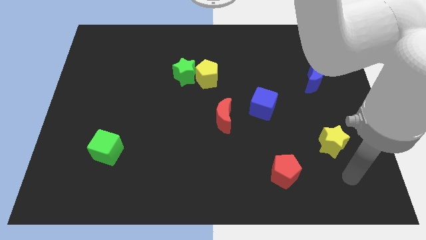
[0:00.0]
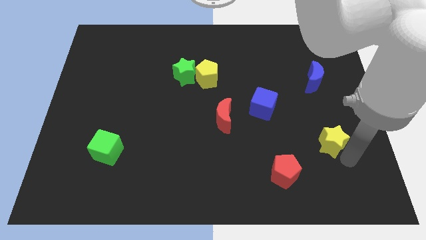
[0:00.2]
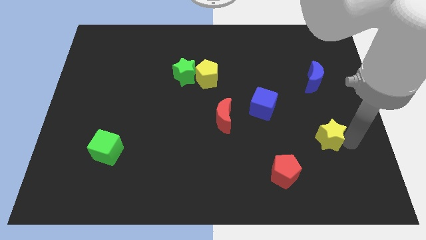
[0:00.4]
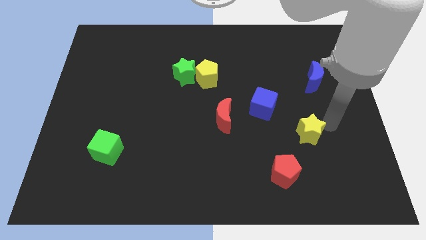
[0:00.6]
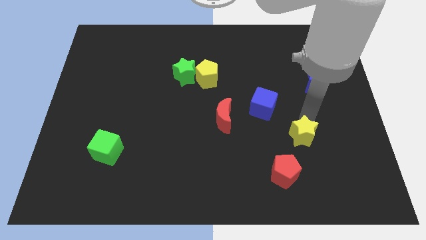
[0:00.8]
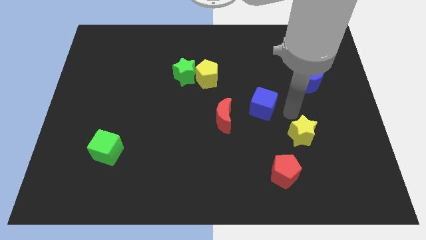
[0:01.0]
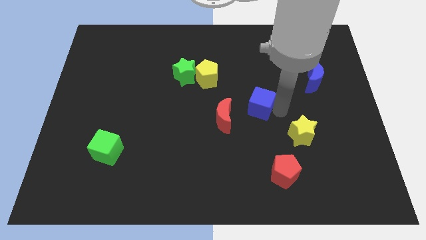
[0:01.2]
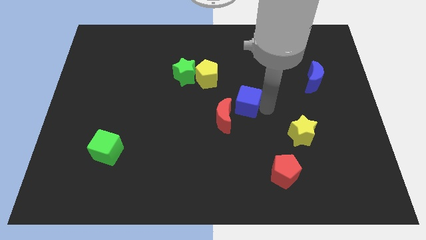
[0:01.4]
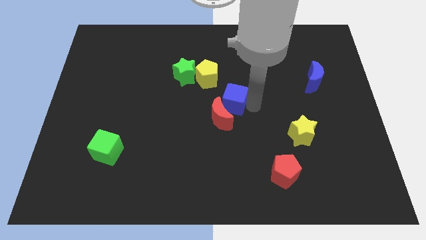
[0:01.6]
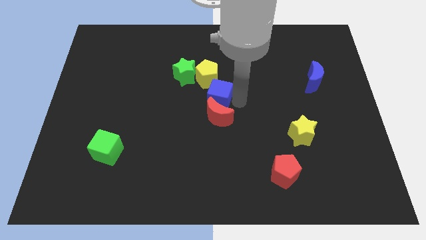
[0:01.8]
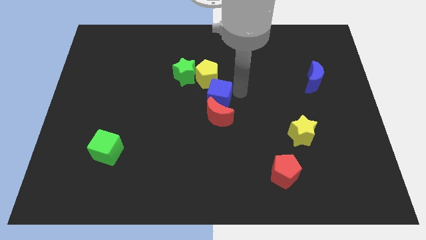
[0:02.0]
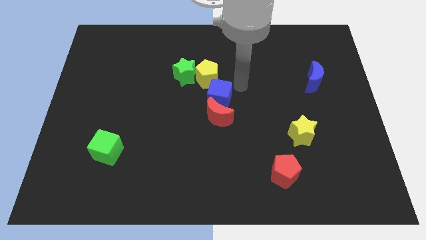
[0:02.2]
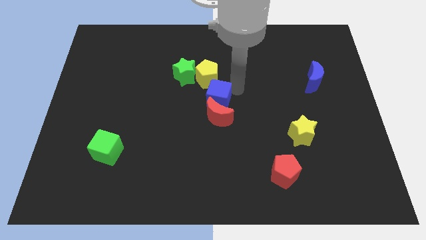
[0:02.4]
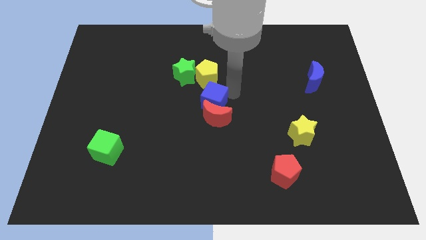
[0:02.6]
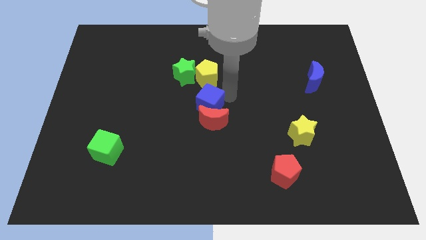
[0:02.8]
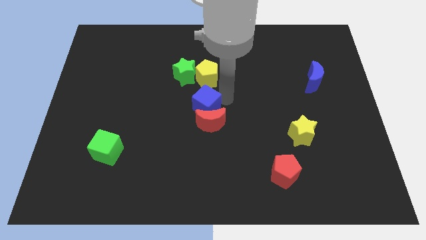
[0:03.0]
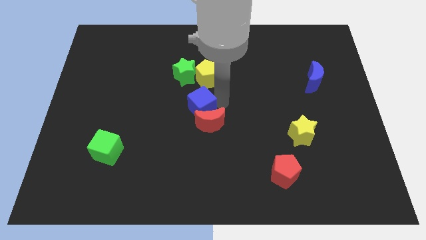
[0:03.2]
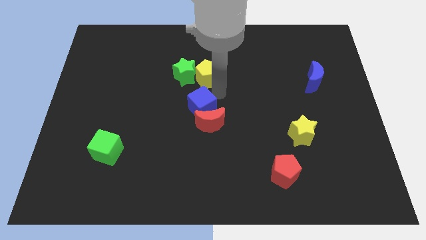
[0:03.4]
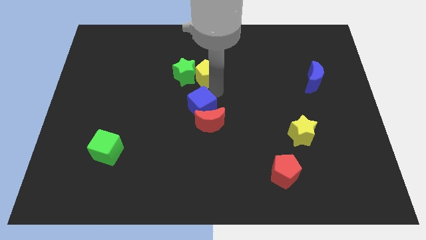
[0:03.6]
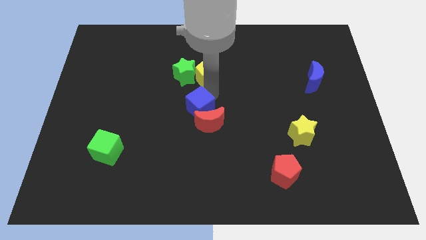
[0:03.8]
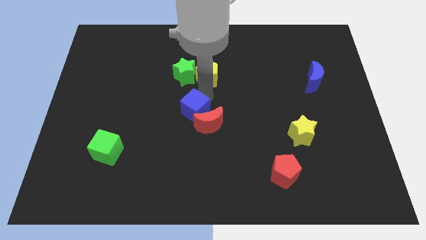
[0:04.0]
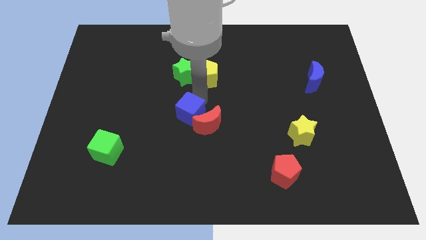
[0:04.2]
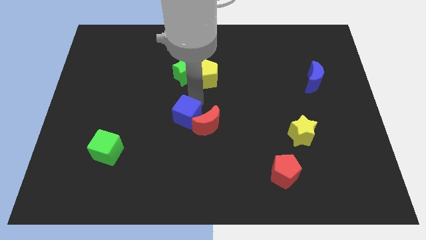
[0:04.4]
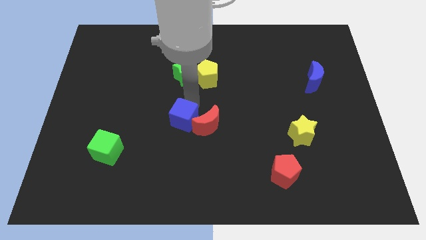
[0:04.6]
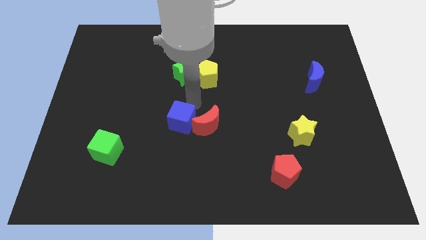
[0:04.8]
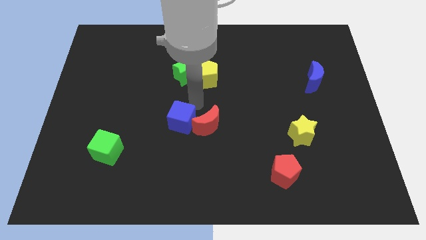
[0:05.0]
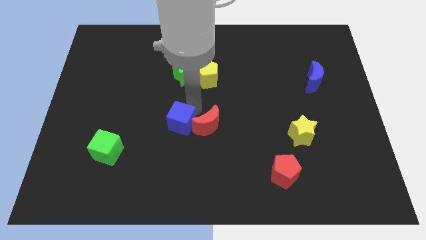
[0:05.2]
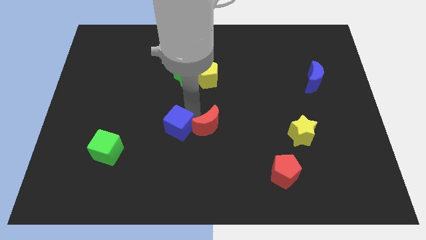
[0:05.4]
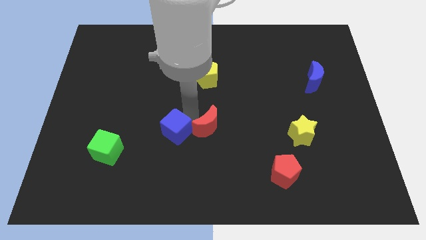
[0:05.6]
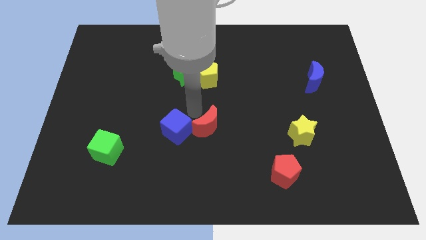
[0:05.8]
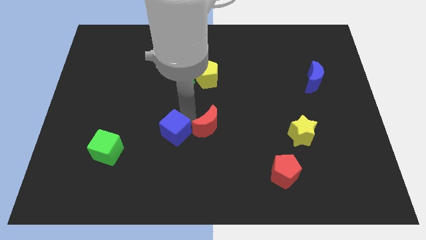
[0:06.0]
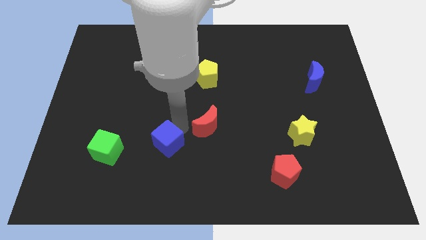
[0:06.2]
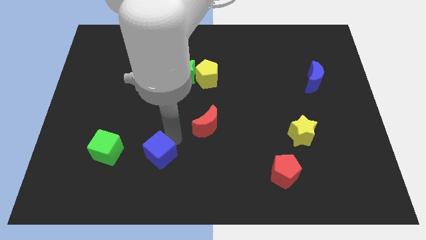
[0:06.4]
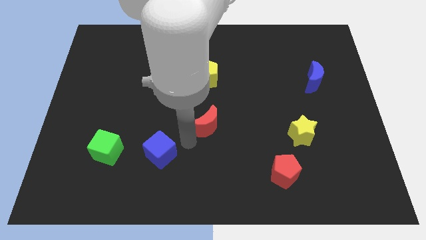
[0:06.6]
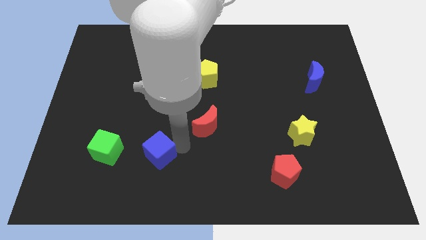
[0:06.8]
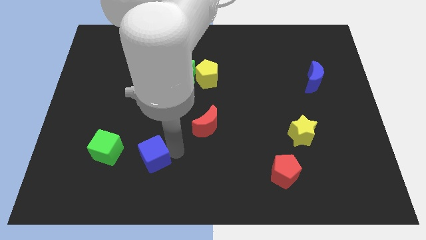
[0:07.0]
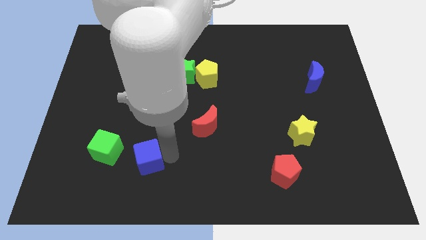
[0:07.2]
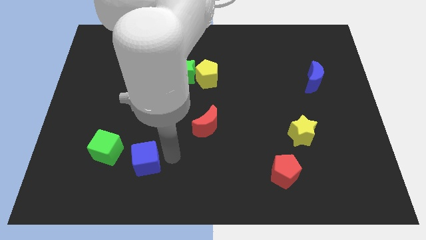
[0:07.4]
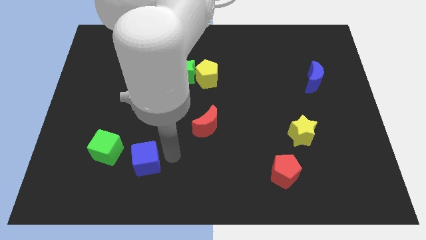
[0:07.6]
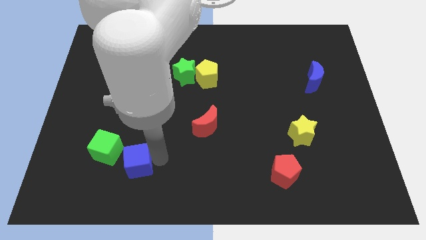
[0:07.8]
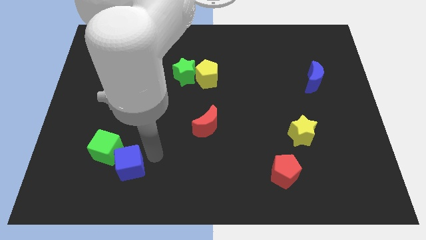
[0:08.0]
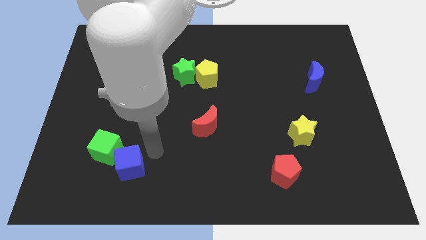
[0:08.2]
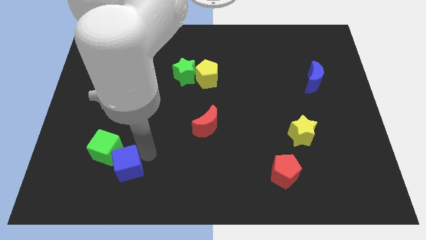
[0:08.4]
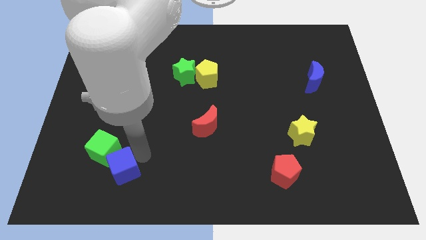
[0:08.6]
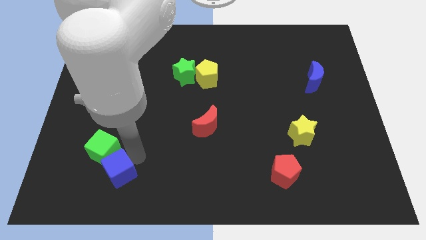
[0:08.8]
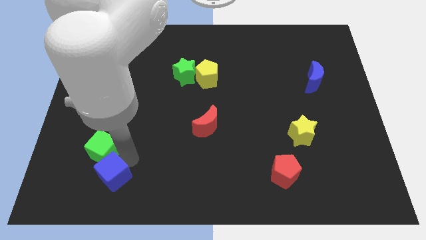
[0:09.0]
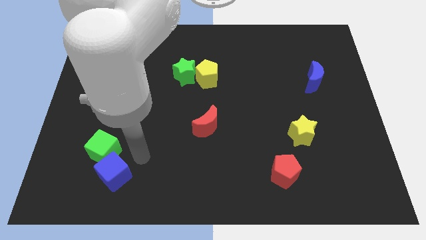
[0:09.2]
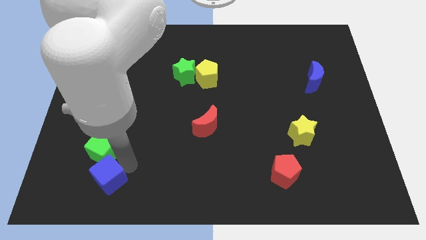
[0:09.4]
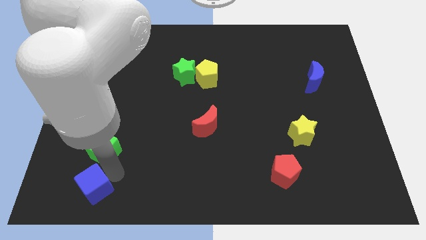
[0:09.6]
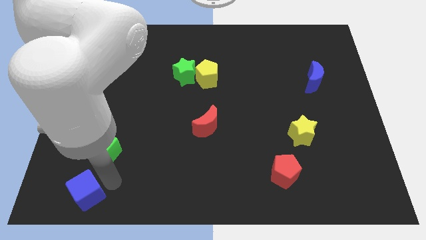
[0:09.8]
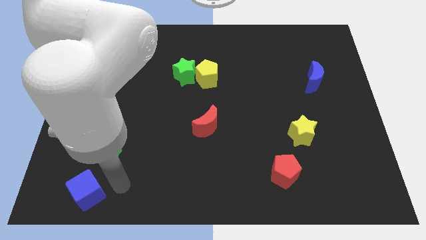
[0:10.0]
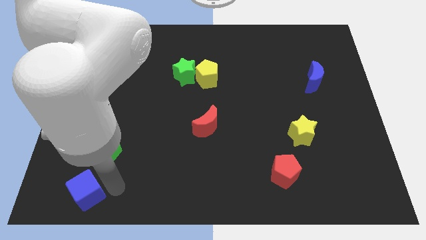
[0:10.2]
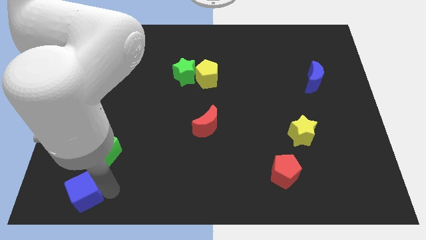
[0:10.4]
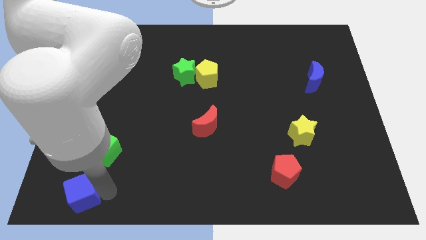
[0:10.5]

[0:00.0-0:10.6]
move the blue cube to the bottom left

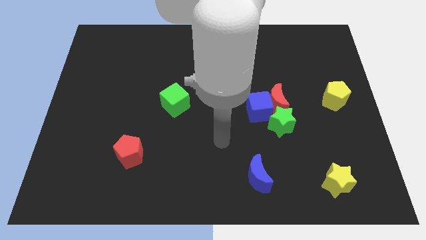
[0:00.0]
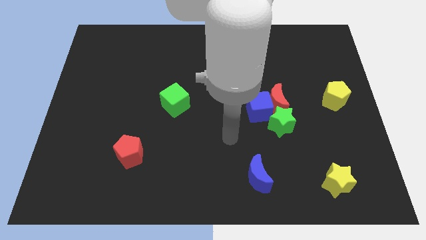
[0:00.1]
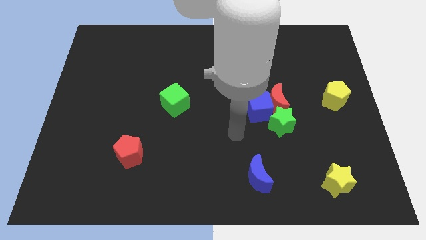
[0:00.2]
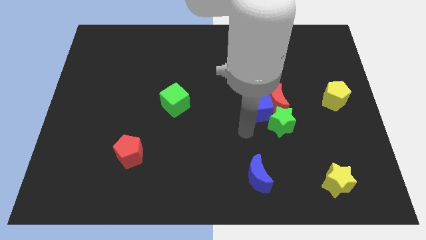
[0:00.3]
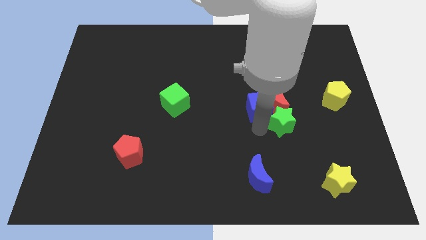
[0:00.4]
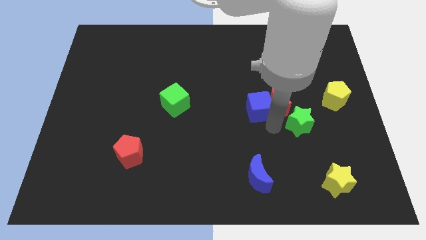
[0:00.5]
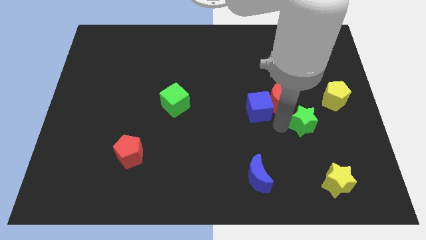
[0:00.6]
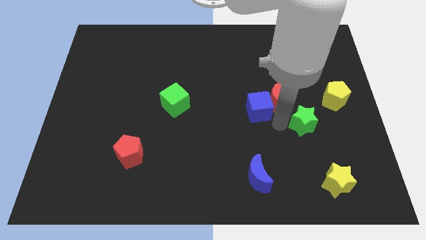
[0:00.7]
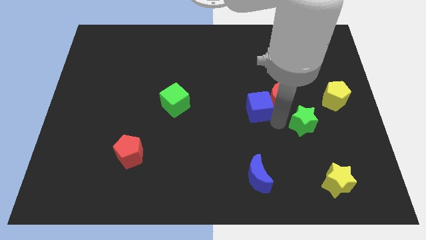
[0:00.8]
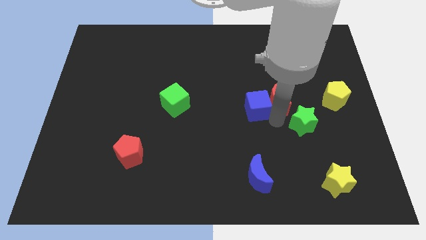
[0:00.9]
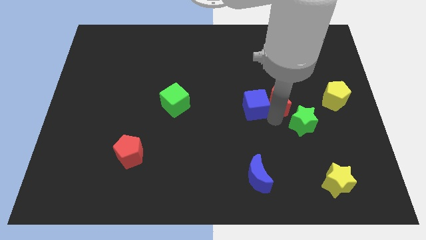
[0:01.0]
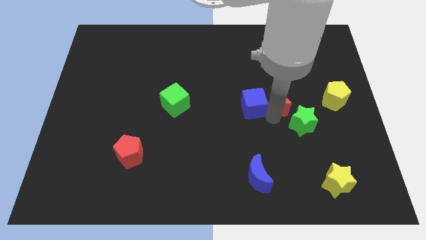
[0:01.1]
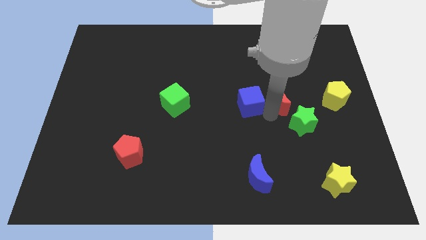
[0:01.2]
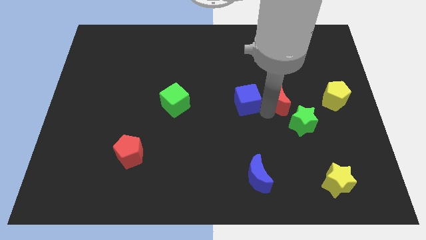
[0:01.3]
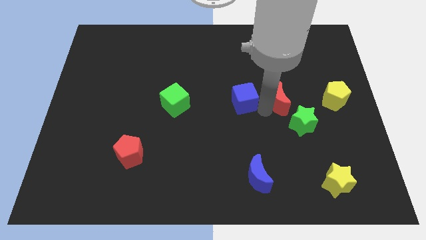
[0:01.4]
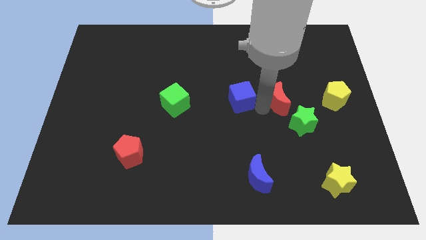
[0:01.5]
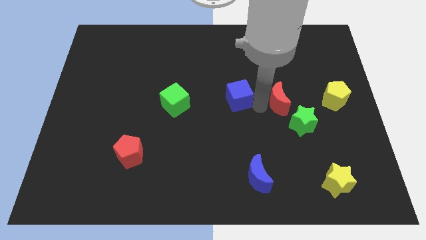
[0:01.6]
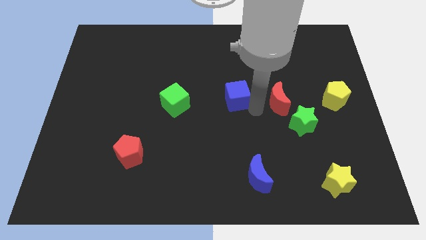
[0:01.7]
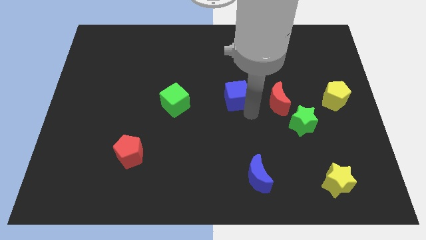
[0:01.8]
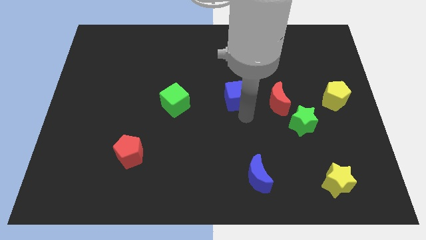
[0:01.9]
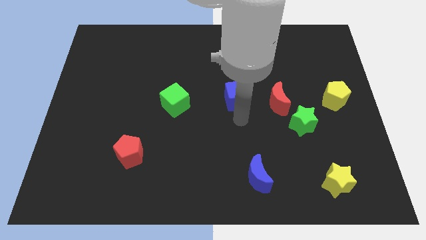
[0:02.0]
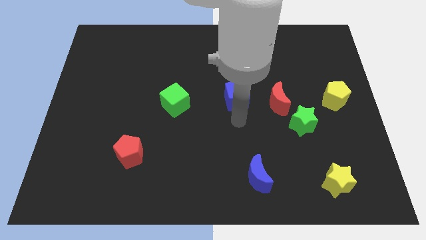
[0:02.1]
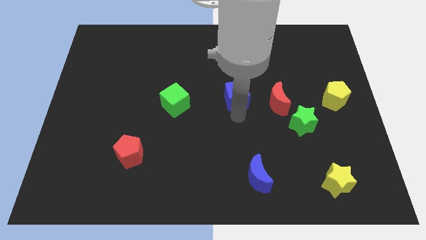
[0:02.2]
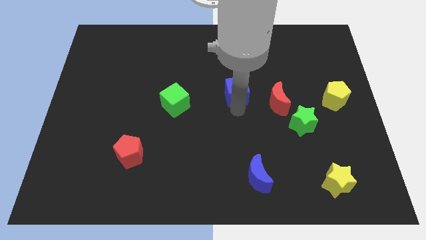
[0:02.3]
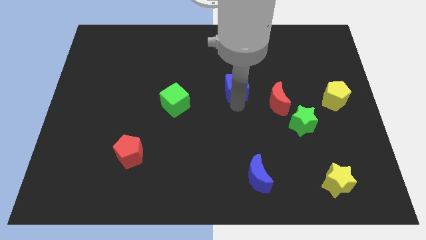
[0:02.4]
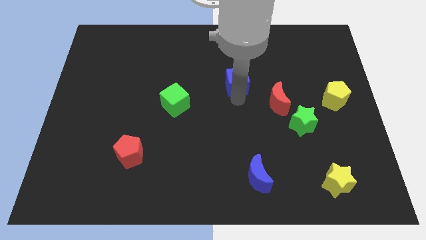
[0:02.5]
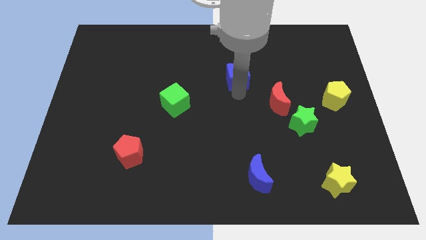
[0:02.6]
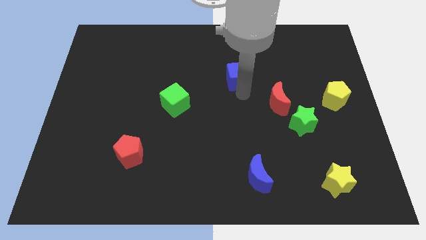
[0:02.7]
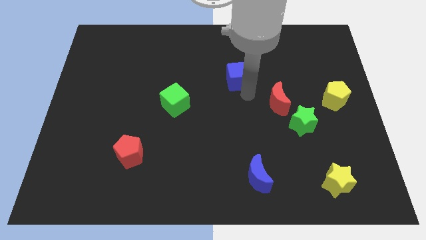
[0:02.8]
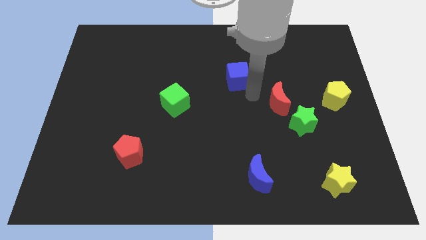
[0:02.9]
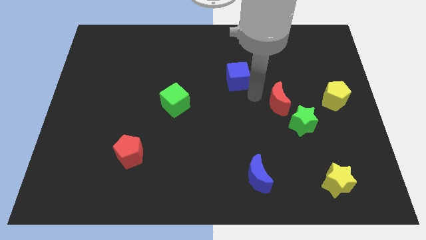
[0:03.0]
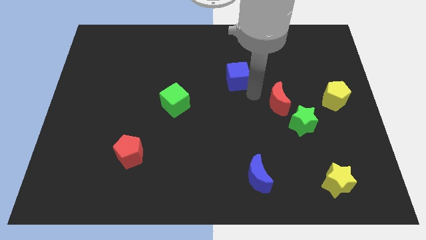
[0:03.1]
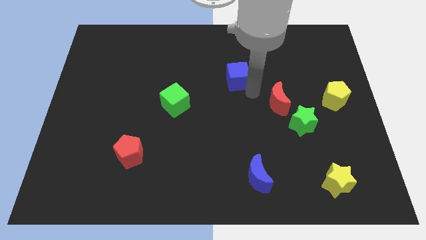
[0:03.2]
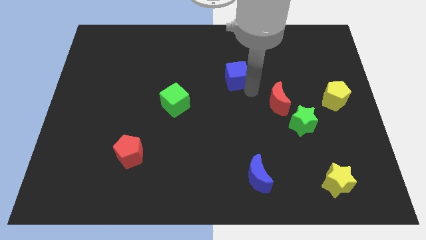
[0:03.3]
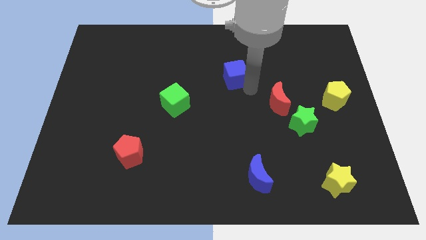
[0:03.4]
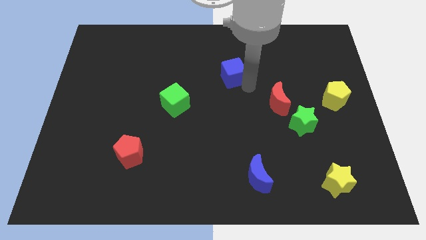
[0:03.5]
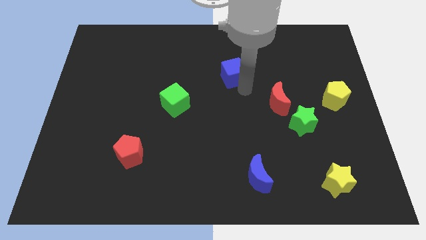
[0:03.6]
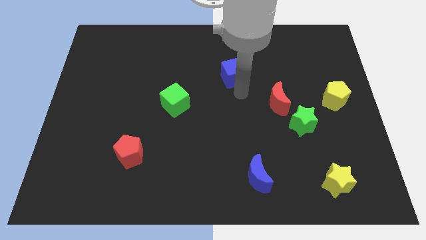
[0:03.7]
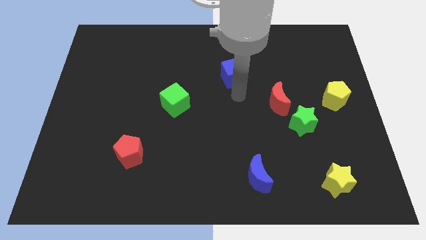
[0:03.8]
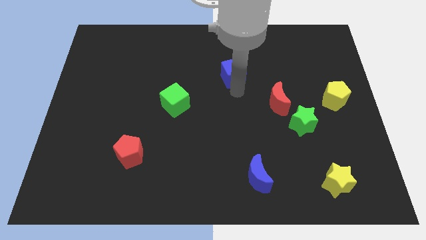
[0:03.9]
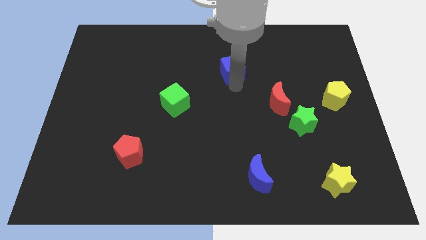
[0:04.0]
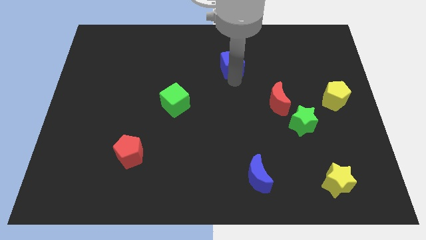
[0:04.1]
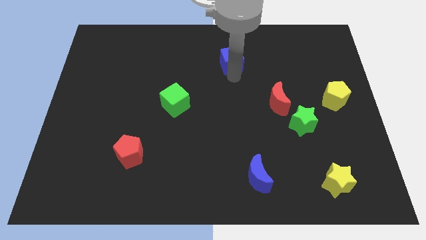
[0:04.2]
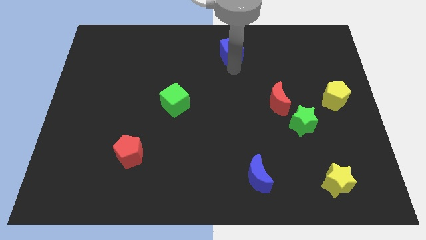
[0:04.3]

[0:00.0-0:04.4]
put the blue cube to the top side
